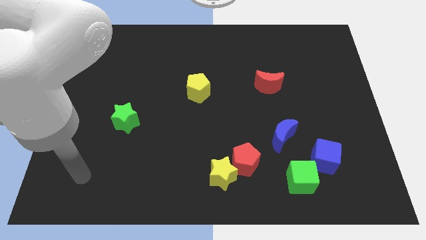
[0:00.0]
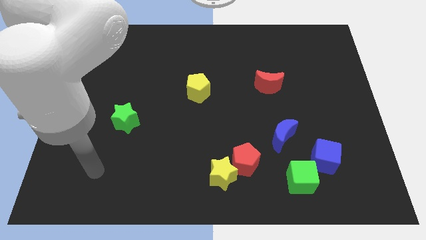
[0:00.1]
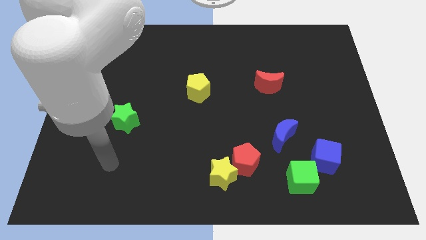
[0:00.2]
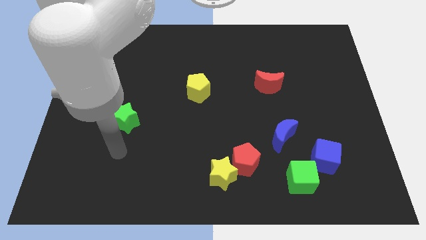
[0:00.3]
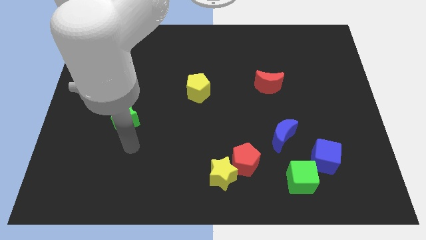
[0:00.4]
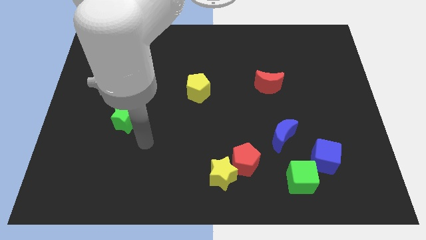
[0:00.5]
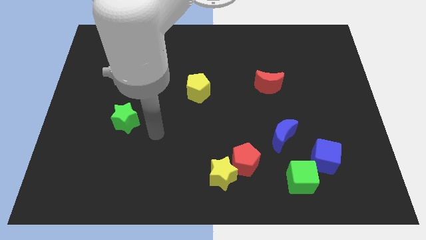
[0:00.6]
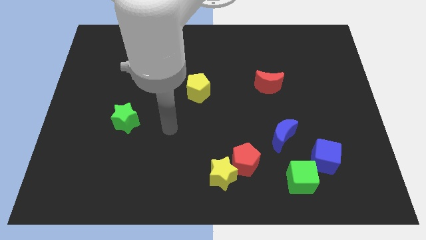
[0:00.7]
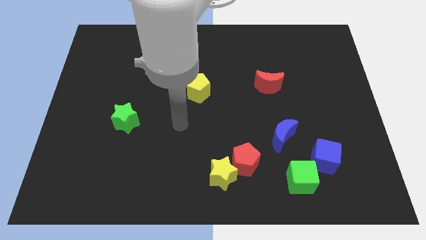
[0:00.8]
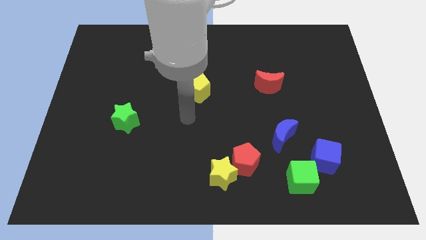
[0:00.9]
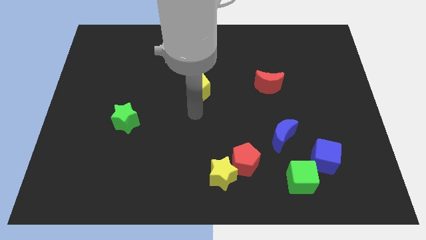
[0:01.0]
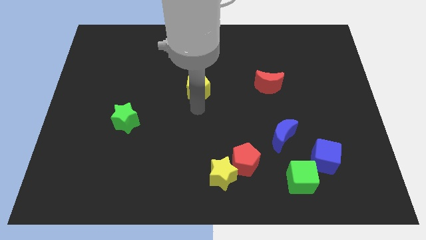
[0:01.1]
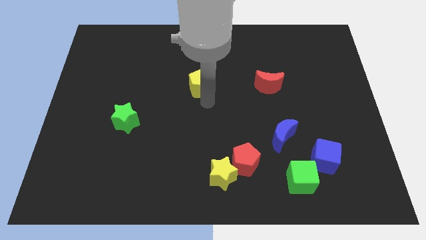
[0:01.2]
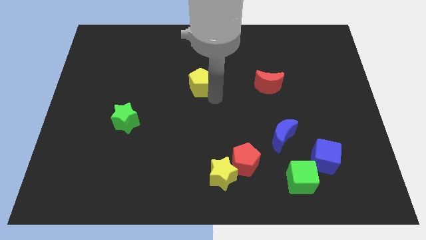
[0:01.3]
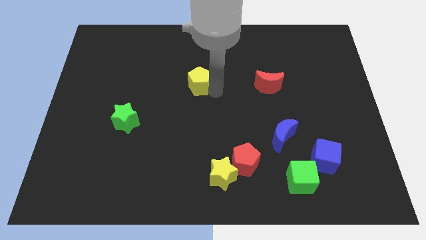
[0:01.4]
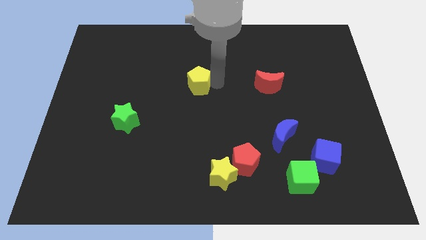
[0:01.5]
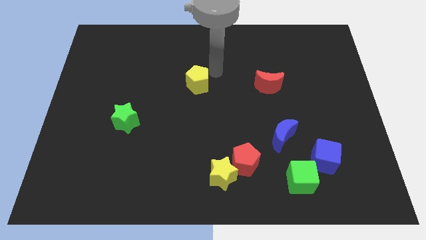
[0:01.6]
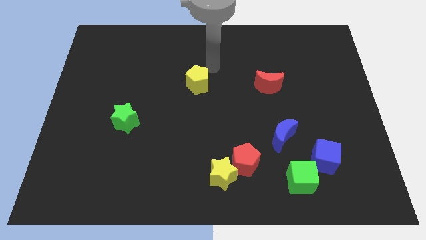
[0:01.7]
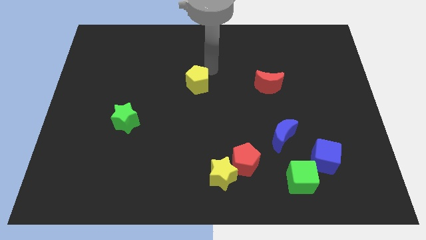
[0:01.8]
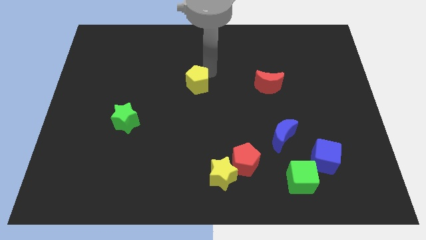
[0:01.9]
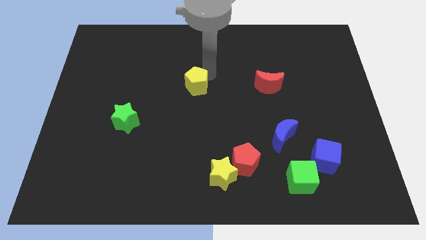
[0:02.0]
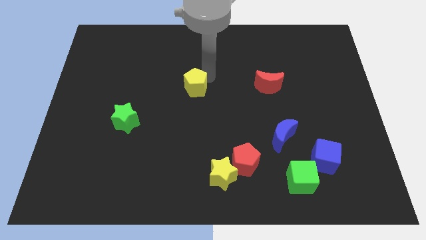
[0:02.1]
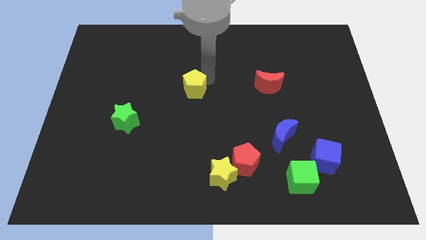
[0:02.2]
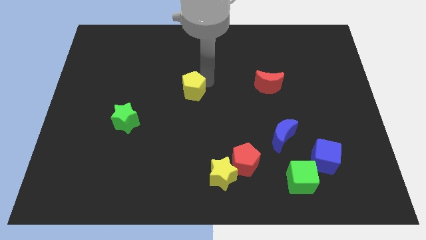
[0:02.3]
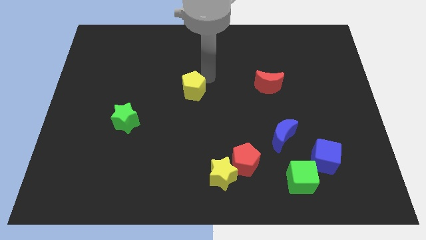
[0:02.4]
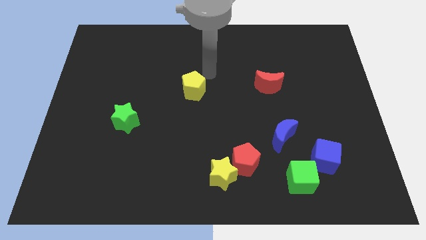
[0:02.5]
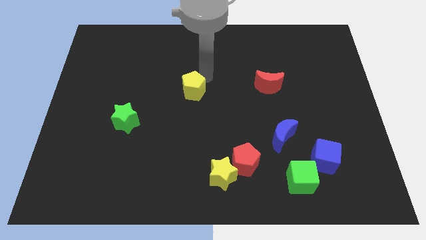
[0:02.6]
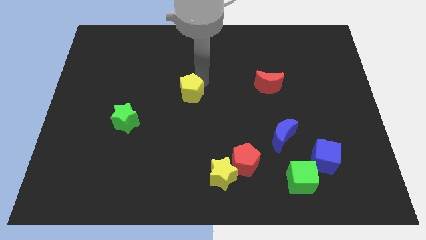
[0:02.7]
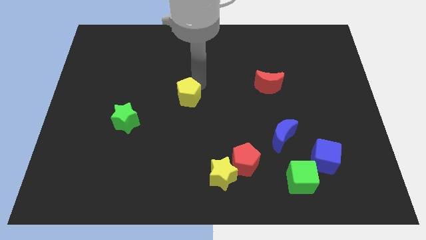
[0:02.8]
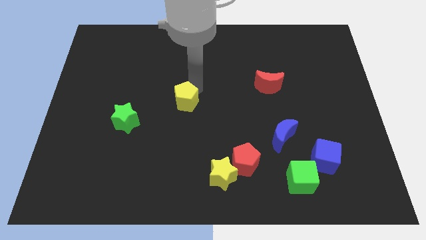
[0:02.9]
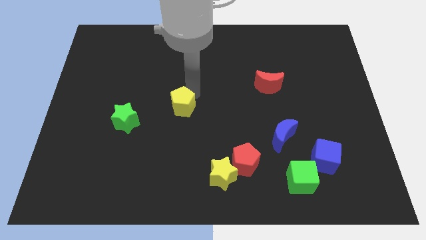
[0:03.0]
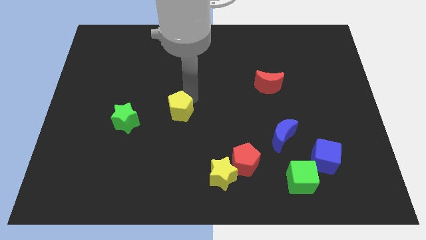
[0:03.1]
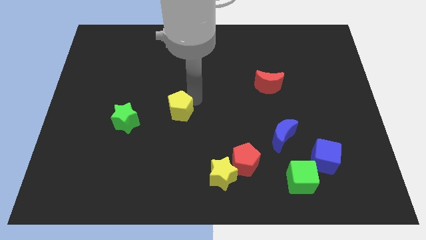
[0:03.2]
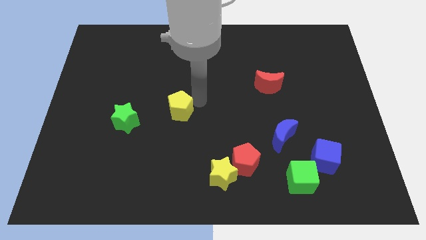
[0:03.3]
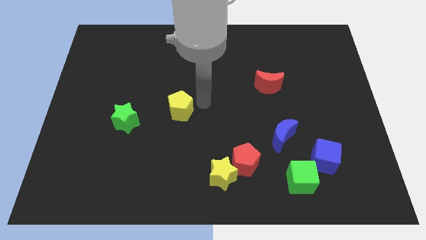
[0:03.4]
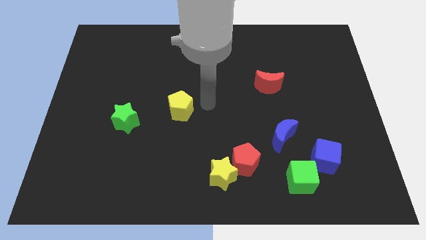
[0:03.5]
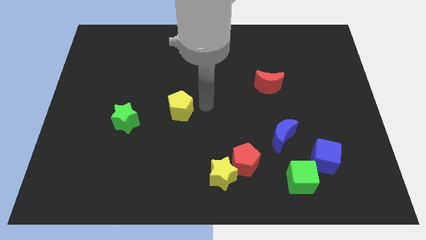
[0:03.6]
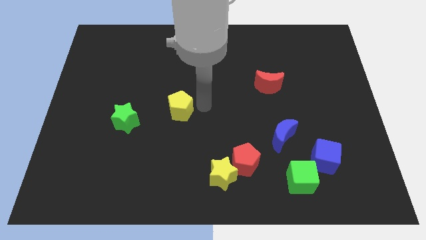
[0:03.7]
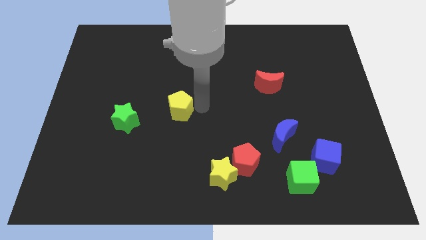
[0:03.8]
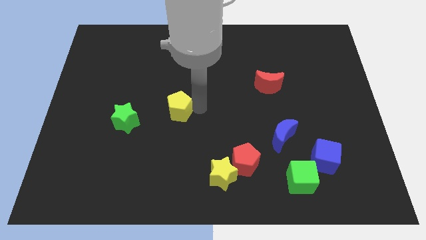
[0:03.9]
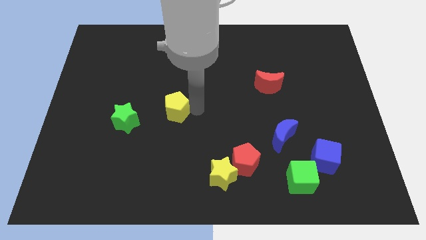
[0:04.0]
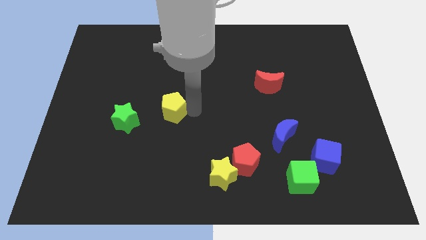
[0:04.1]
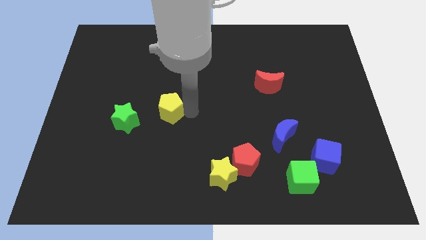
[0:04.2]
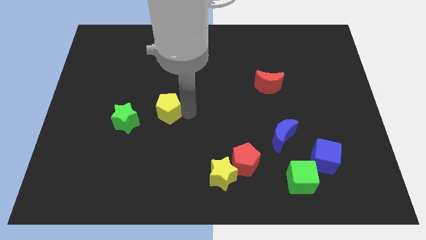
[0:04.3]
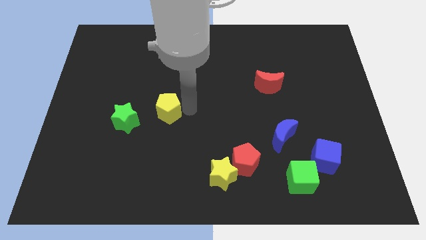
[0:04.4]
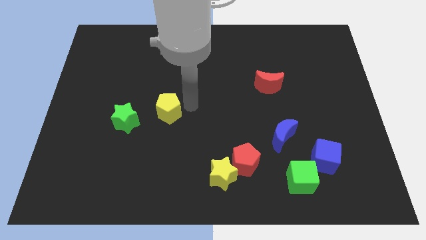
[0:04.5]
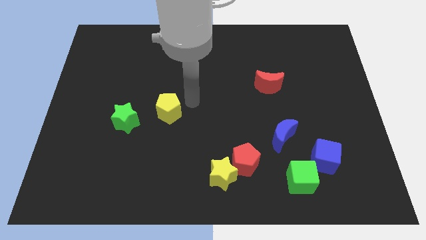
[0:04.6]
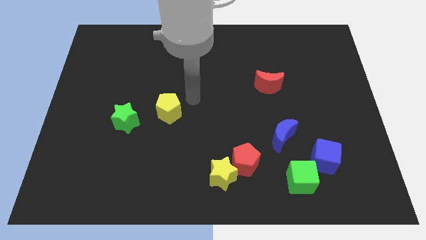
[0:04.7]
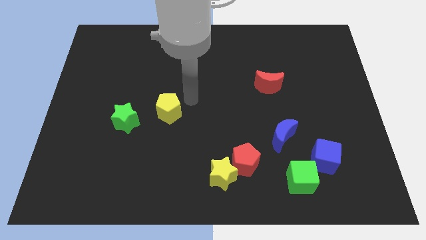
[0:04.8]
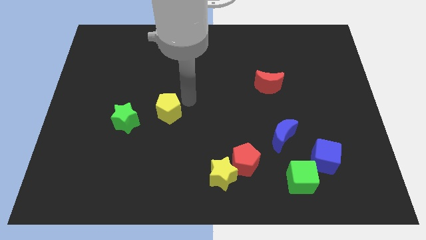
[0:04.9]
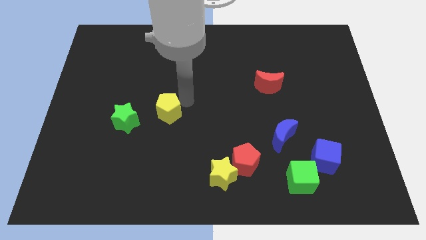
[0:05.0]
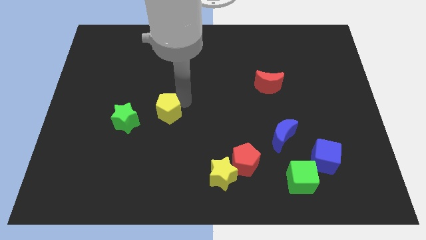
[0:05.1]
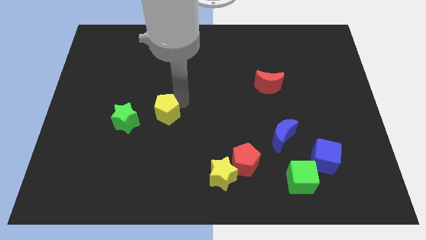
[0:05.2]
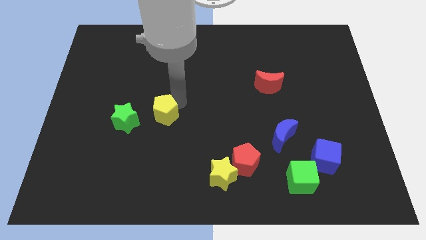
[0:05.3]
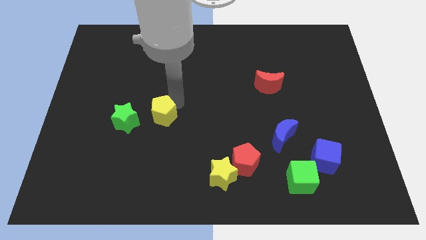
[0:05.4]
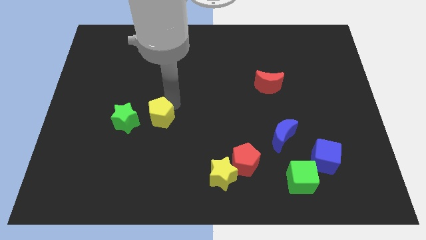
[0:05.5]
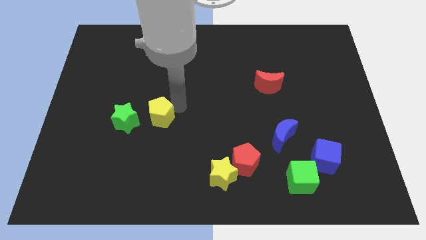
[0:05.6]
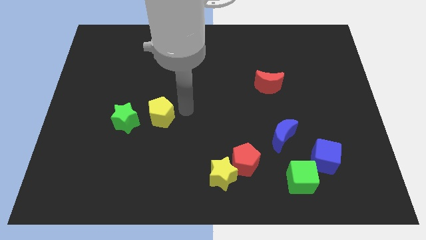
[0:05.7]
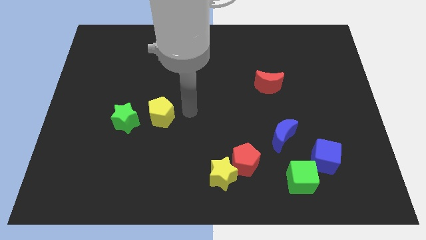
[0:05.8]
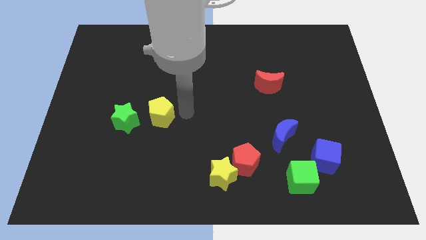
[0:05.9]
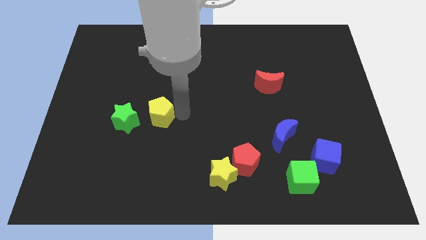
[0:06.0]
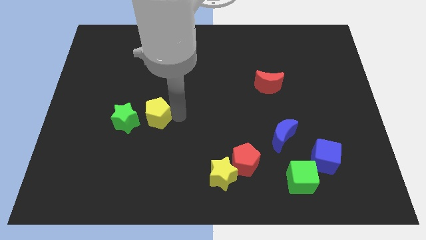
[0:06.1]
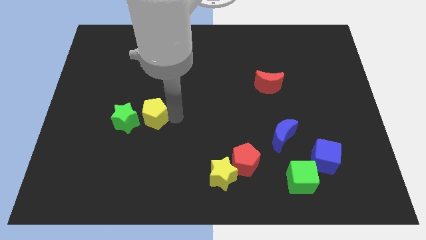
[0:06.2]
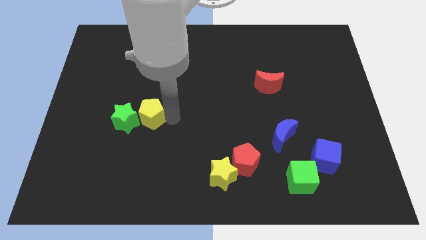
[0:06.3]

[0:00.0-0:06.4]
slide the yellow pentagon towards the green star

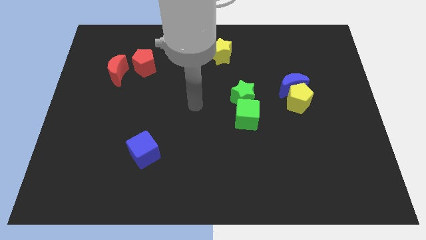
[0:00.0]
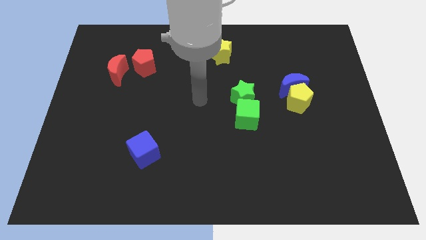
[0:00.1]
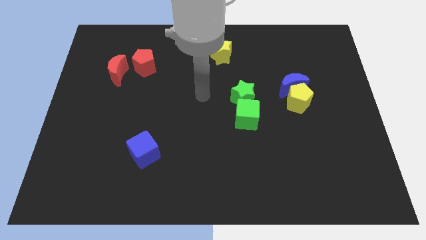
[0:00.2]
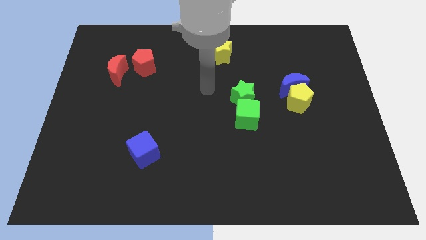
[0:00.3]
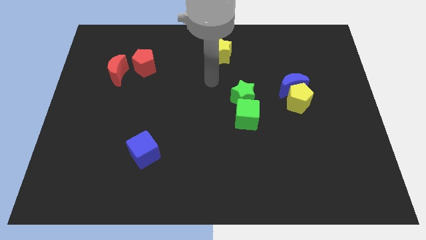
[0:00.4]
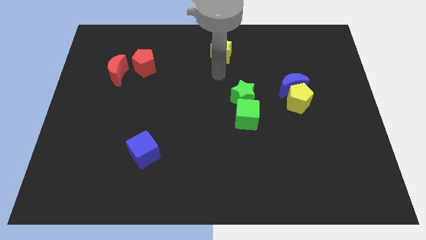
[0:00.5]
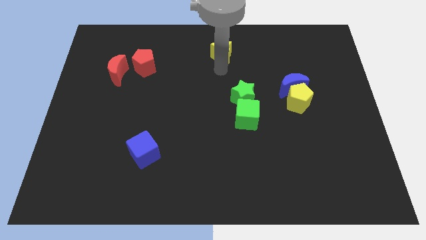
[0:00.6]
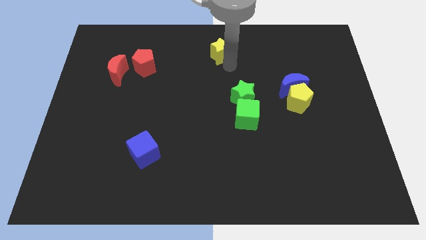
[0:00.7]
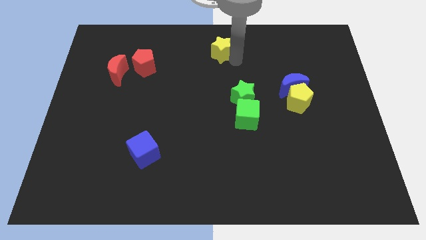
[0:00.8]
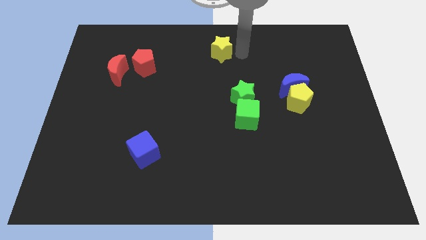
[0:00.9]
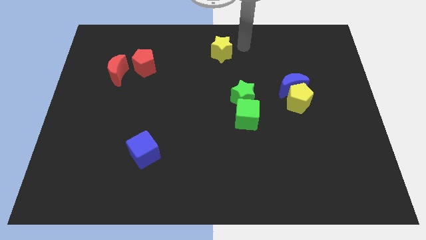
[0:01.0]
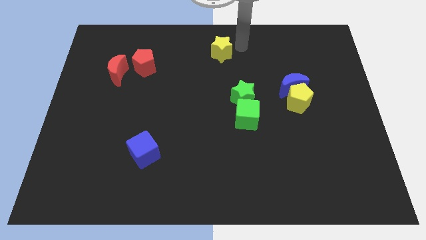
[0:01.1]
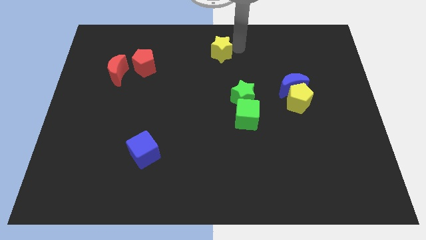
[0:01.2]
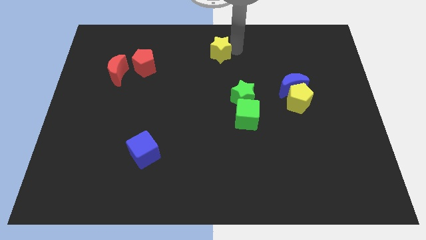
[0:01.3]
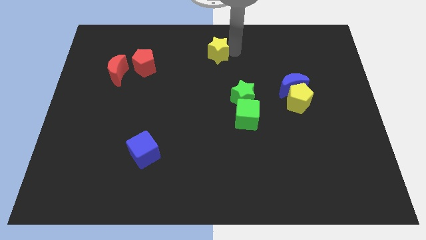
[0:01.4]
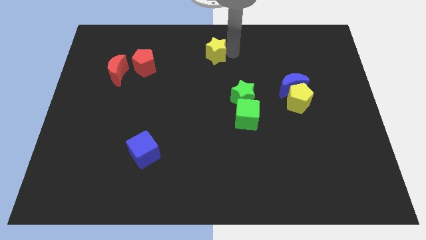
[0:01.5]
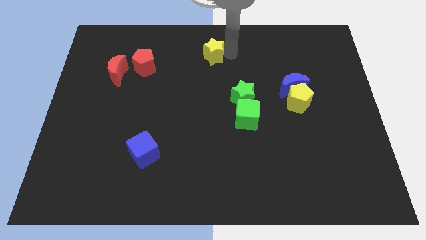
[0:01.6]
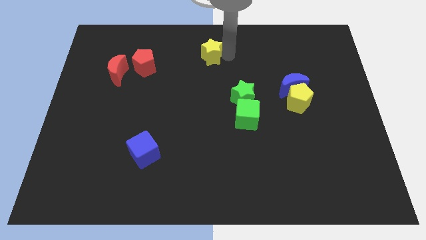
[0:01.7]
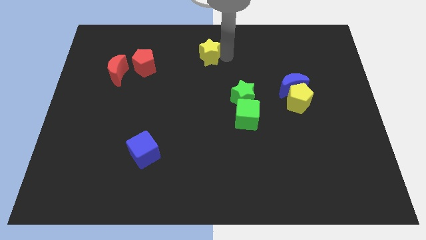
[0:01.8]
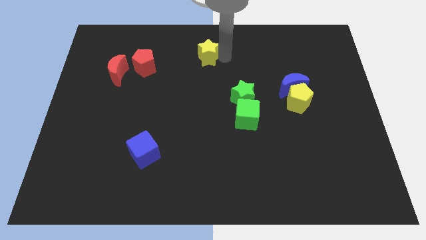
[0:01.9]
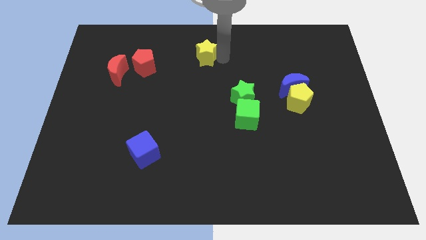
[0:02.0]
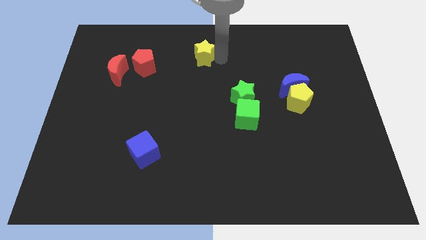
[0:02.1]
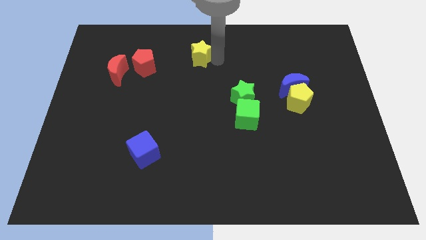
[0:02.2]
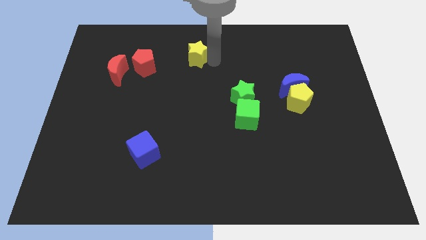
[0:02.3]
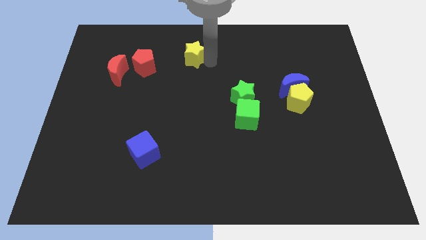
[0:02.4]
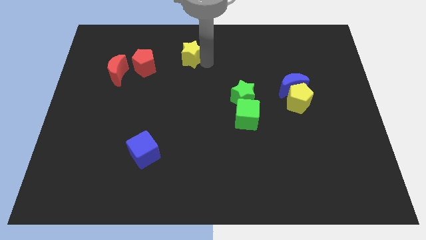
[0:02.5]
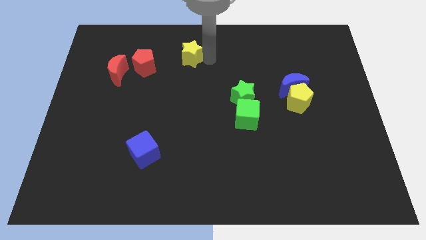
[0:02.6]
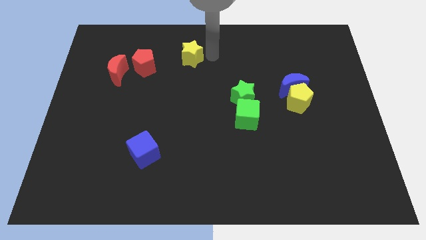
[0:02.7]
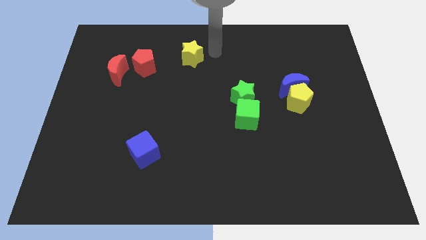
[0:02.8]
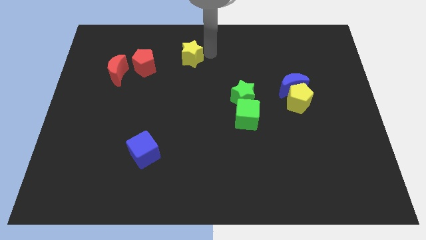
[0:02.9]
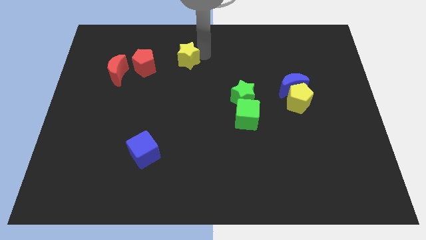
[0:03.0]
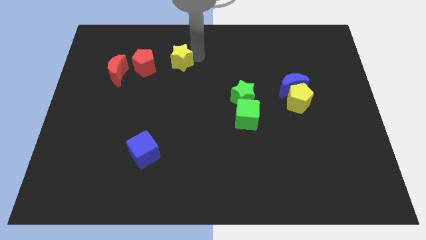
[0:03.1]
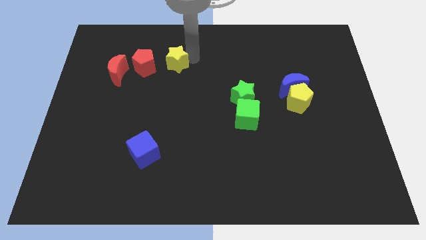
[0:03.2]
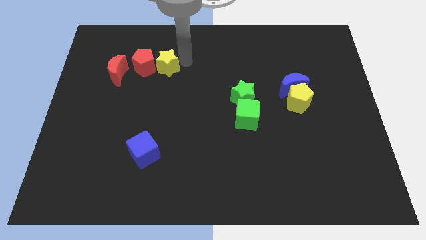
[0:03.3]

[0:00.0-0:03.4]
move the yellow star close to the red pentagon
